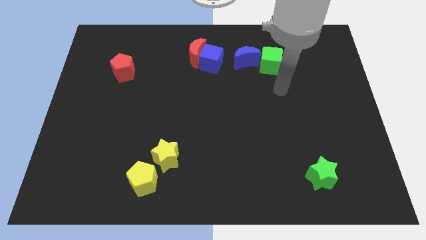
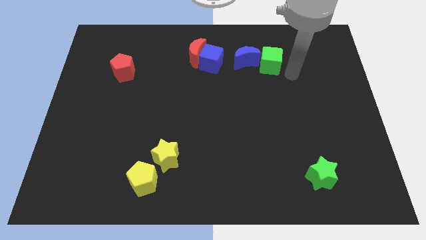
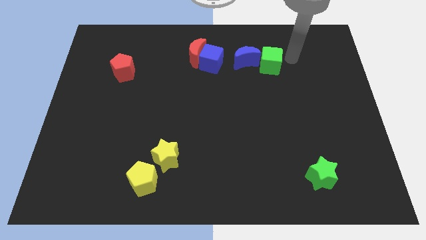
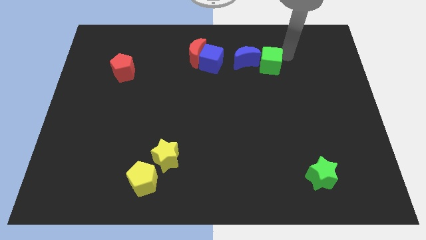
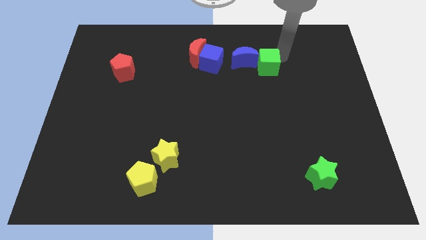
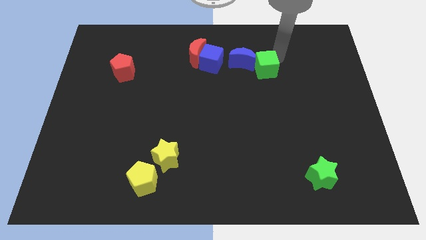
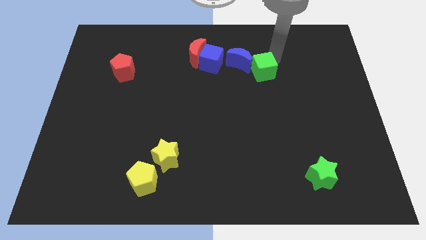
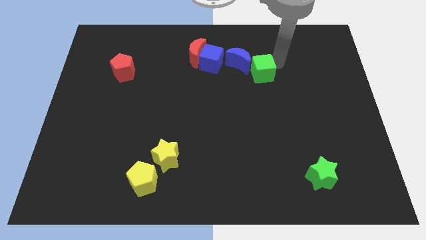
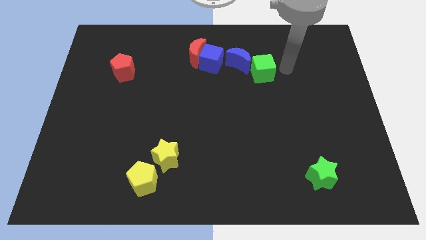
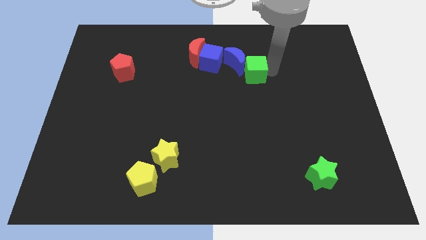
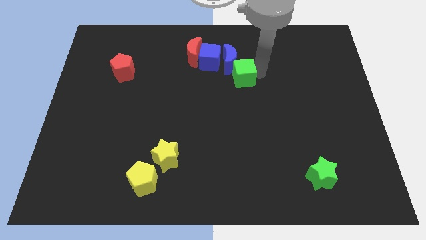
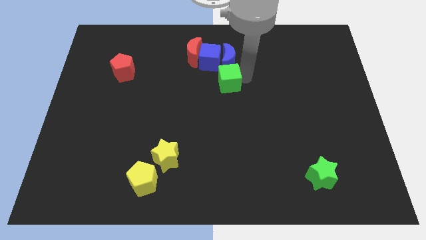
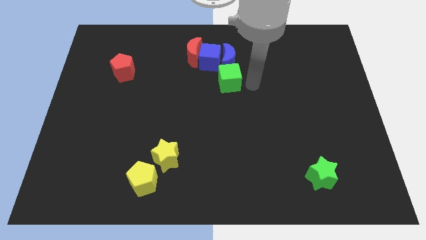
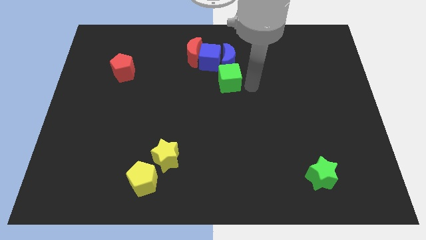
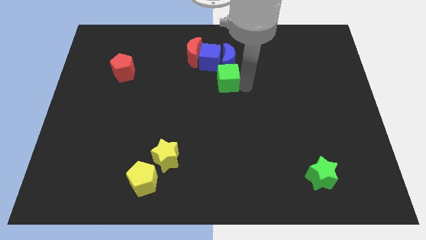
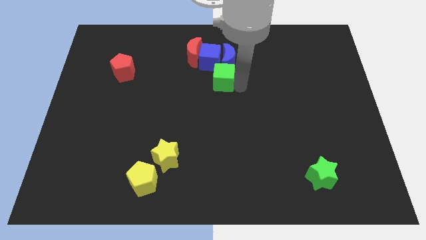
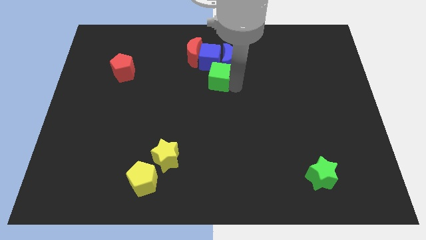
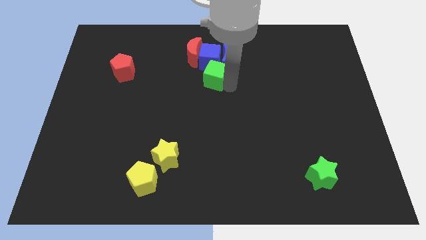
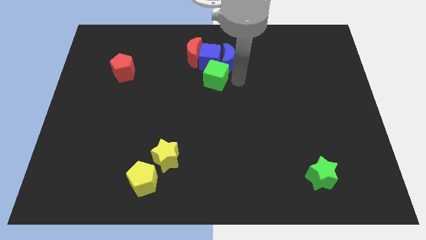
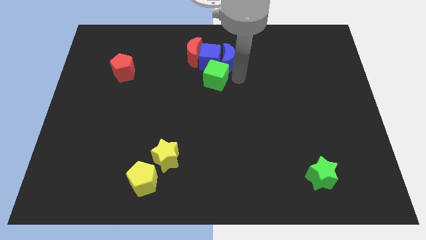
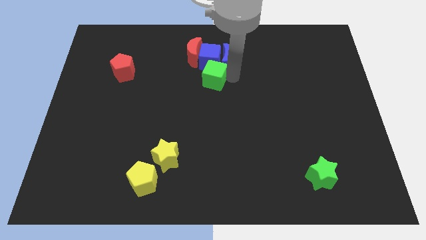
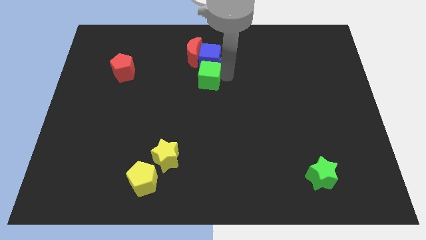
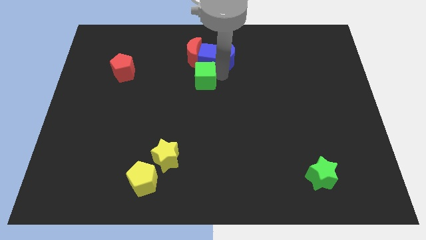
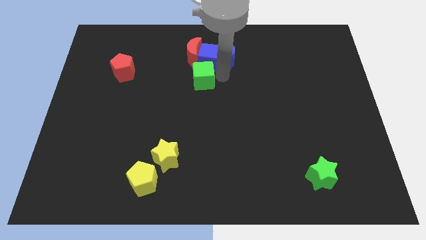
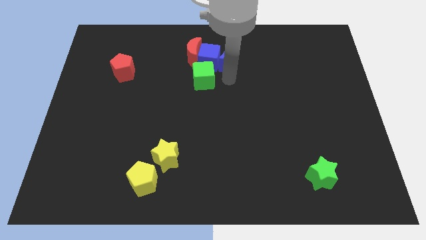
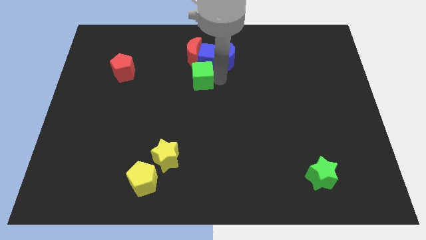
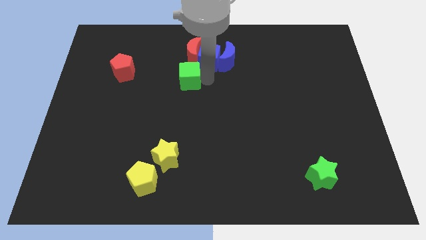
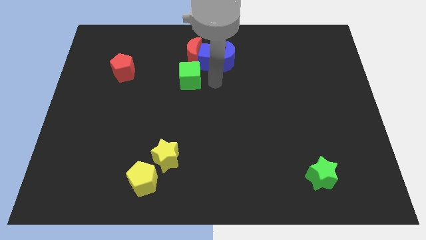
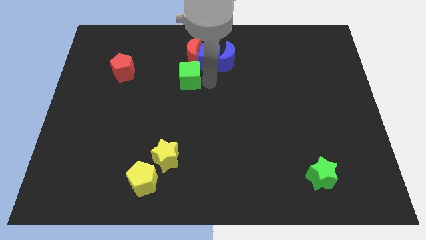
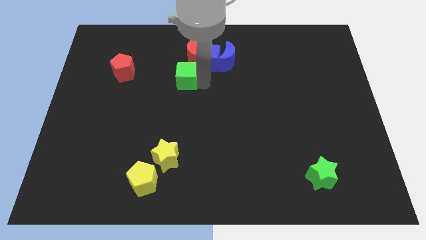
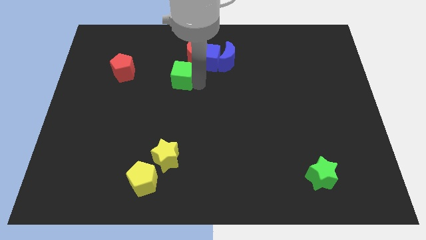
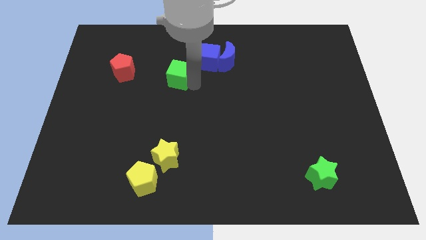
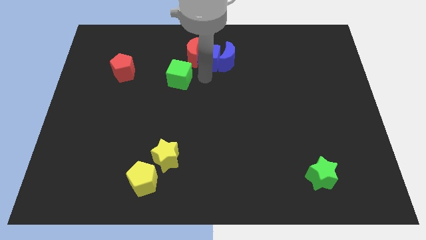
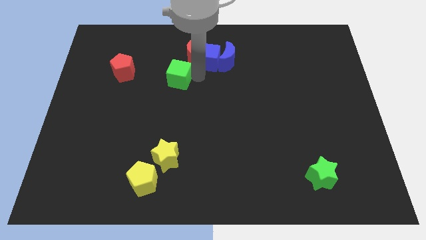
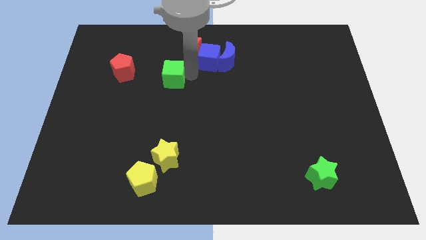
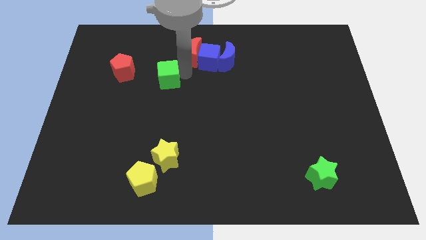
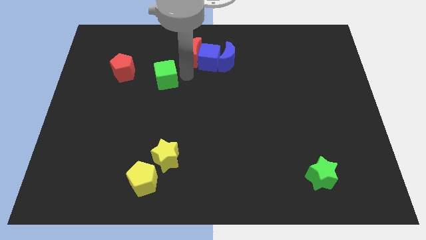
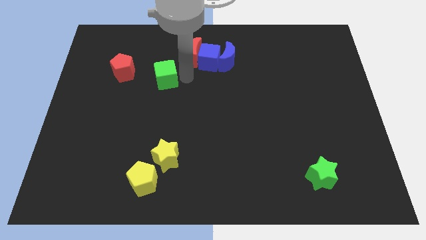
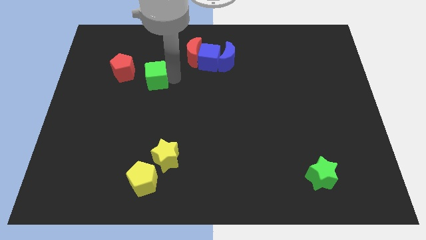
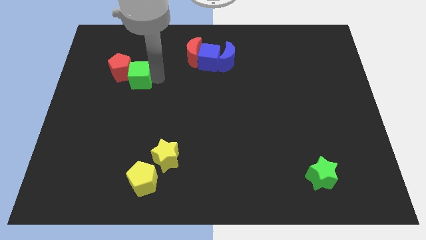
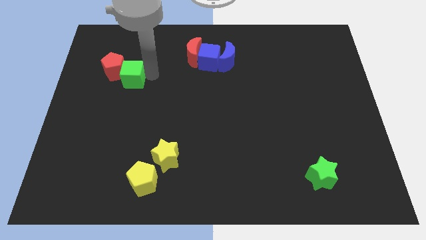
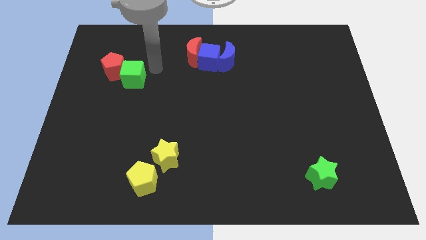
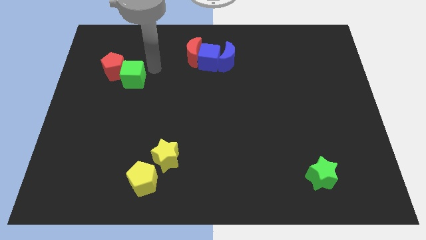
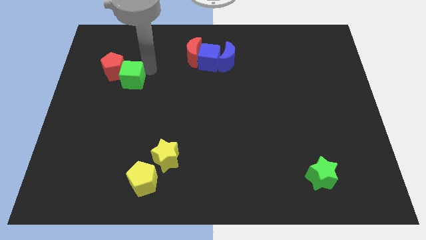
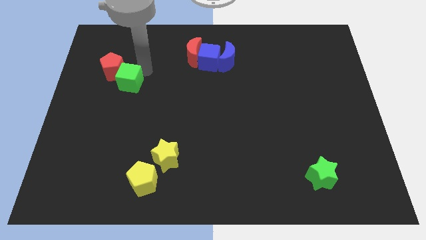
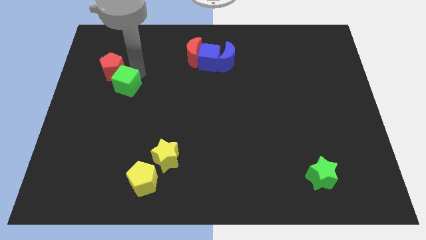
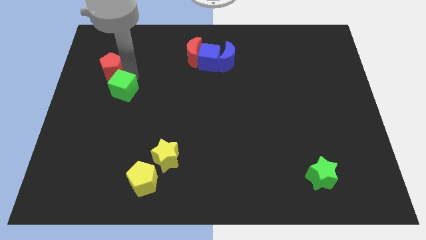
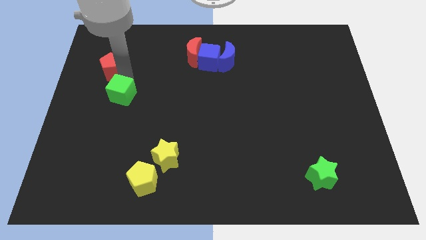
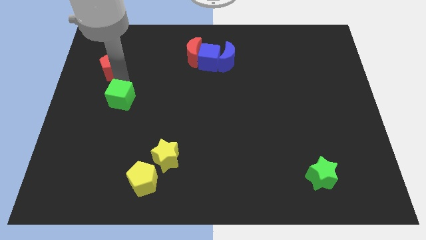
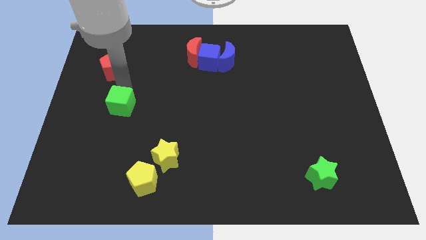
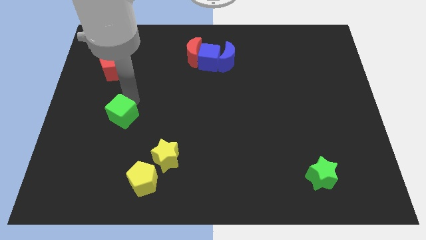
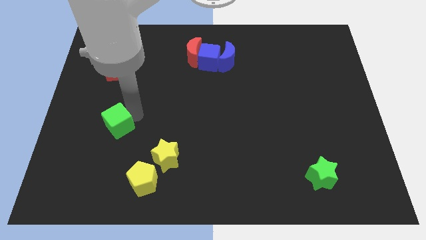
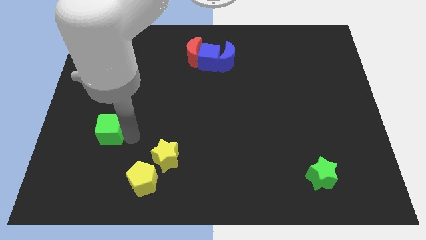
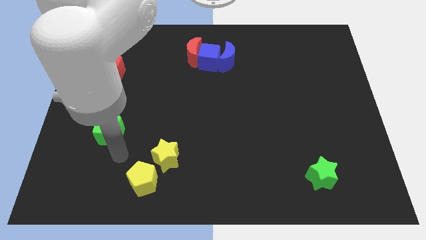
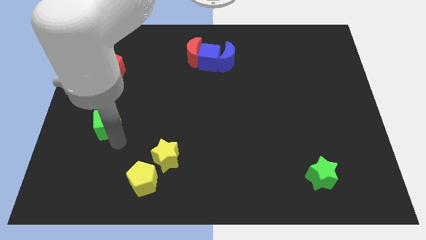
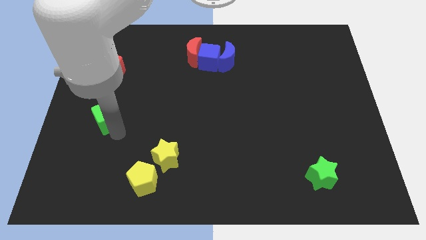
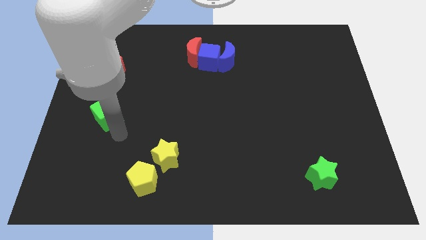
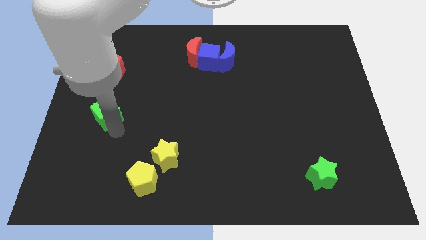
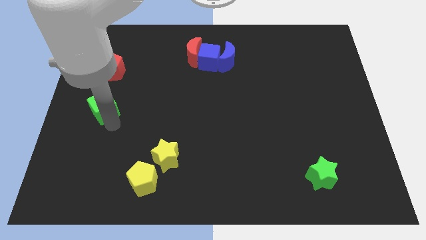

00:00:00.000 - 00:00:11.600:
slide the green cube to the center left

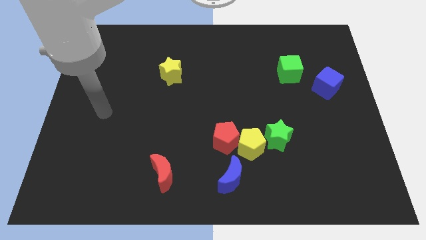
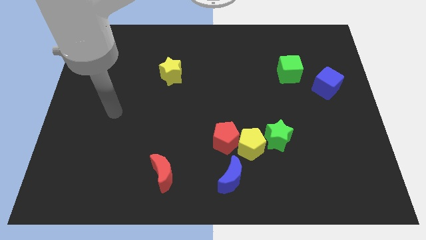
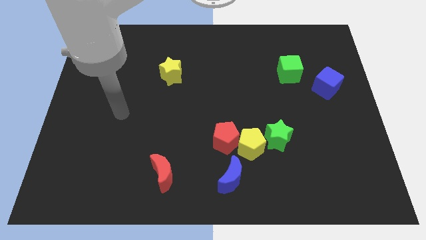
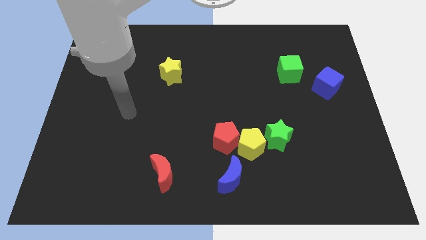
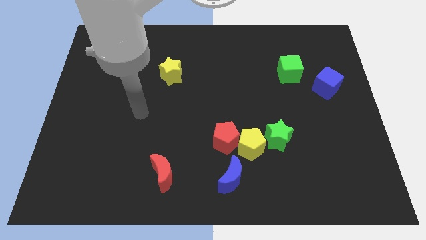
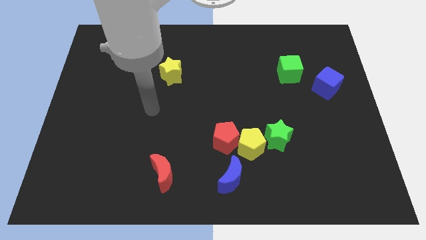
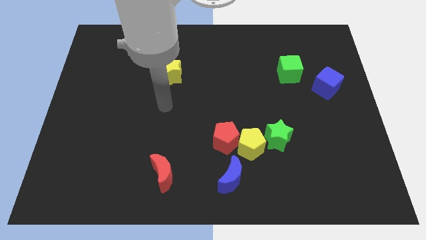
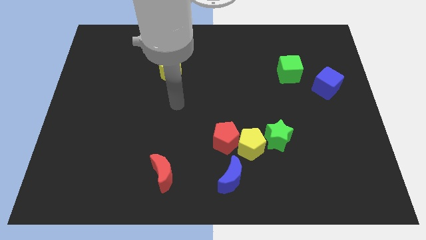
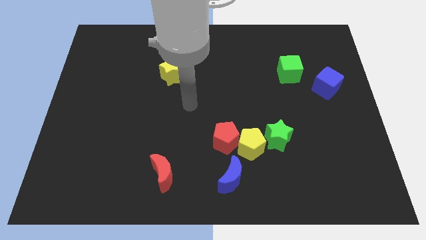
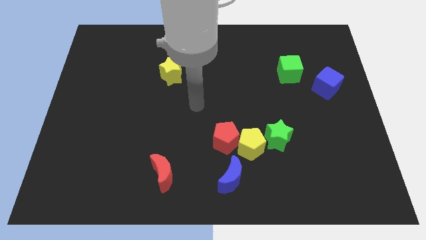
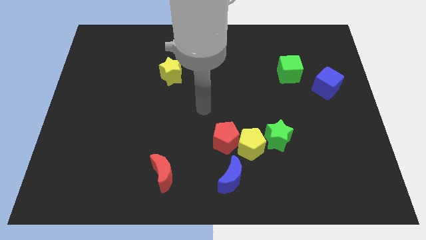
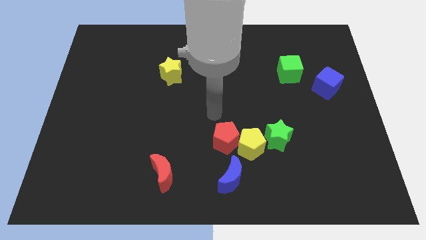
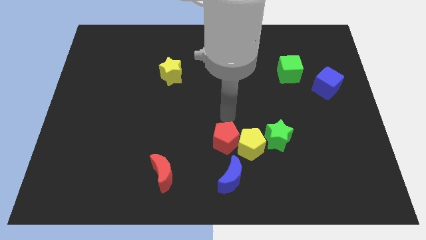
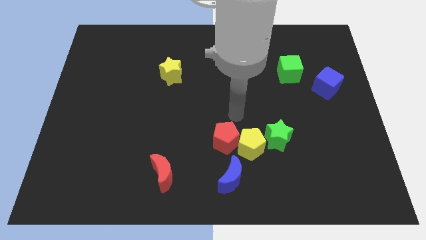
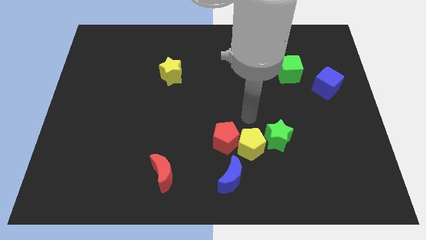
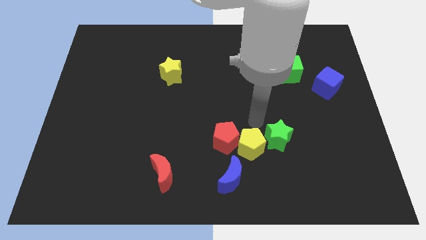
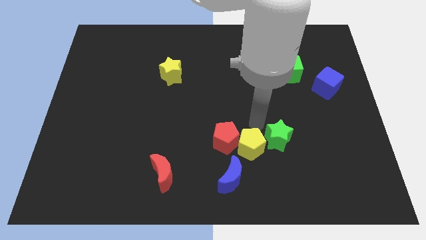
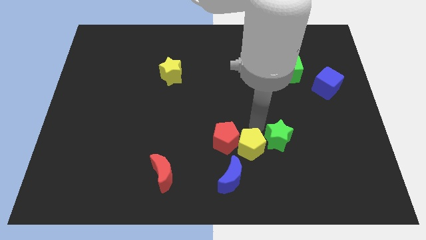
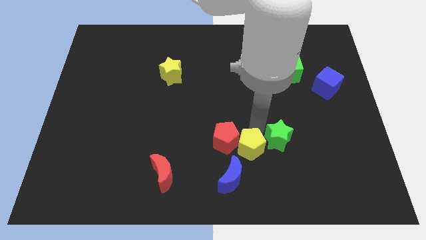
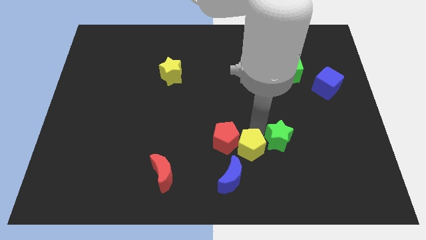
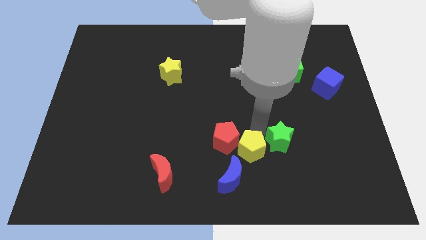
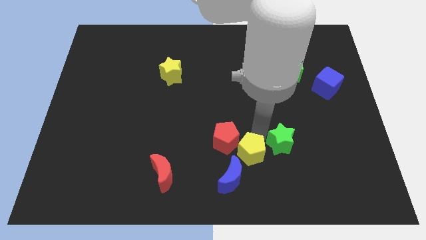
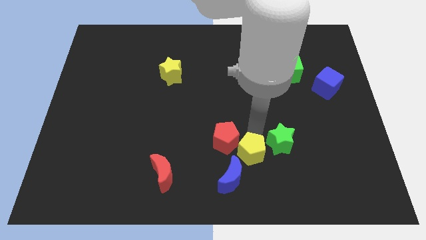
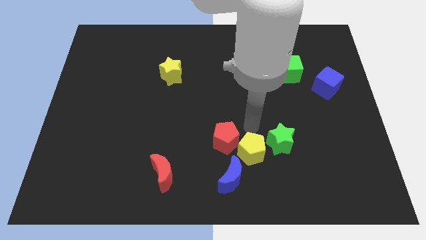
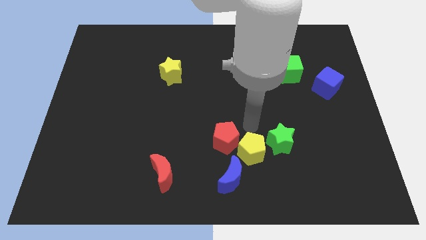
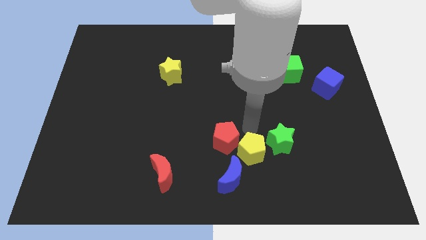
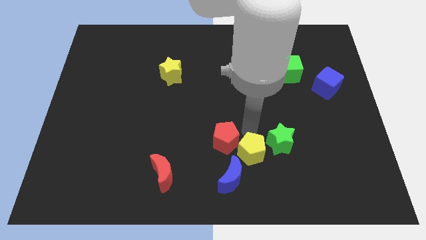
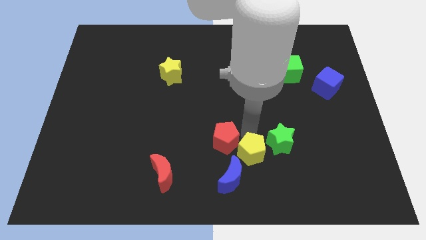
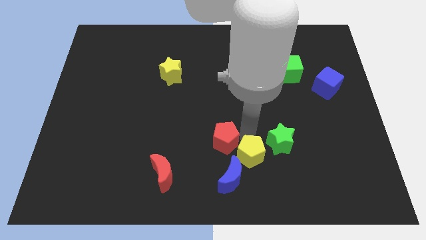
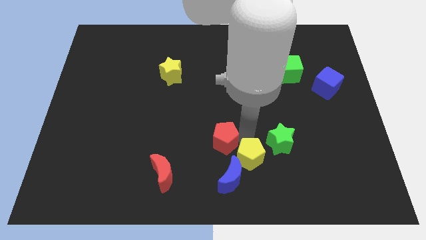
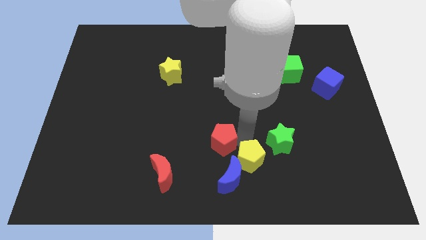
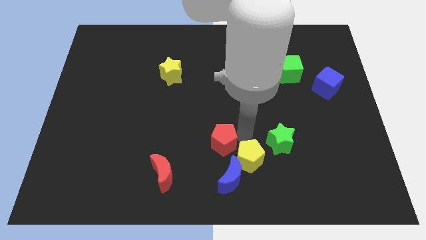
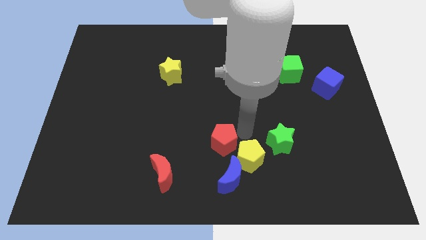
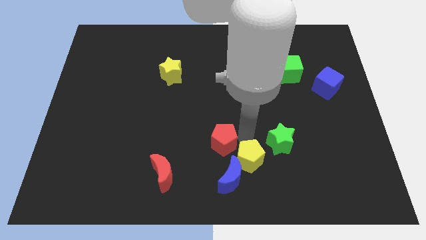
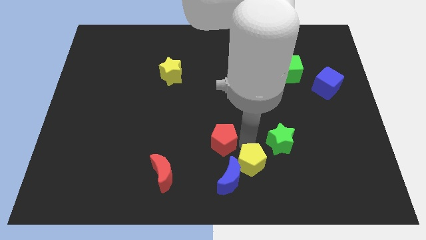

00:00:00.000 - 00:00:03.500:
push the yellow pentagon to the bottom side
